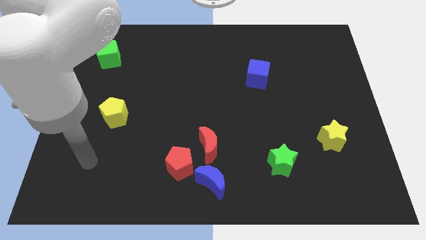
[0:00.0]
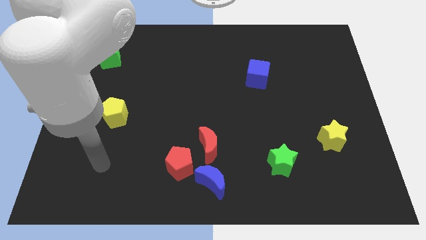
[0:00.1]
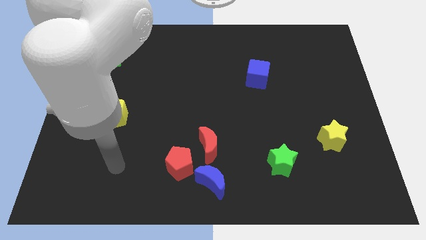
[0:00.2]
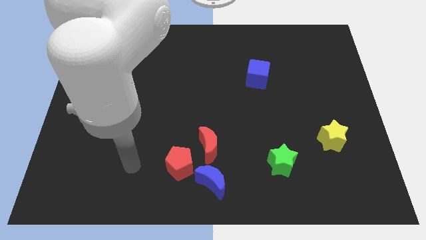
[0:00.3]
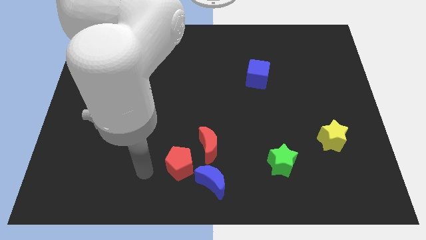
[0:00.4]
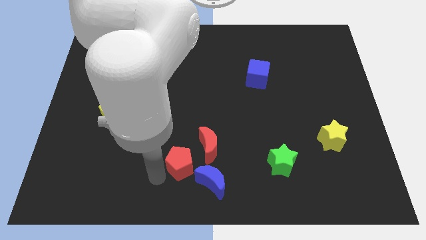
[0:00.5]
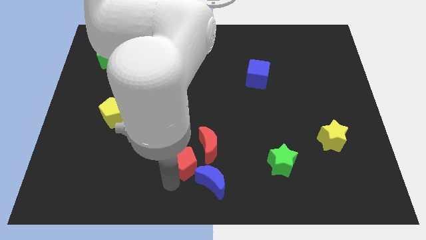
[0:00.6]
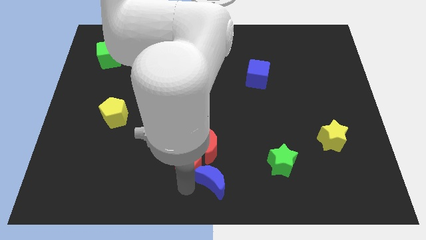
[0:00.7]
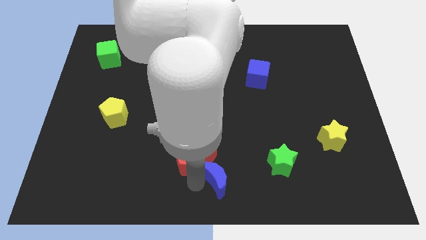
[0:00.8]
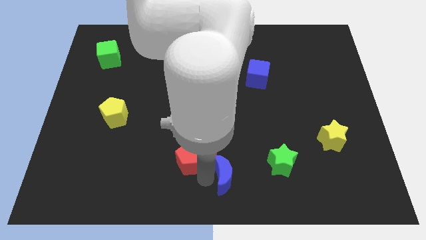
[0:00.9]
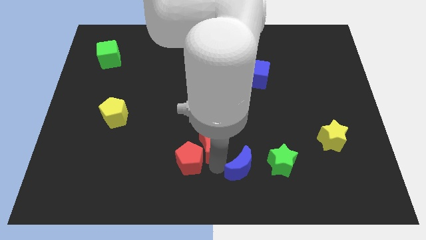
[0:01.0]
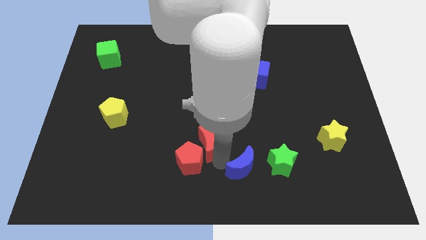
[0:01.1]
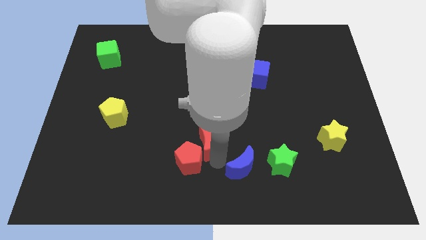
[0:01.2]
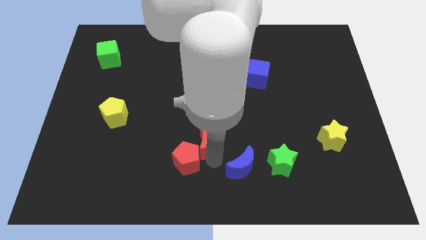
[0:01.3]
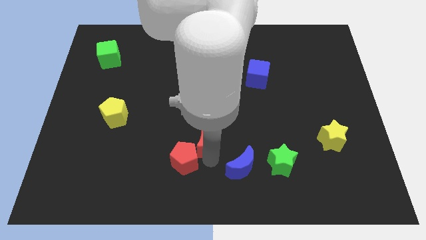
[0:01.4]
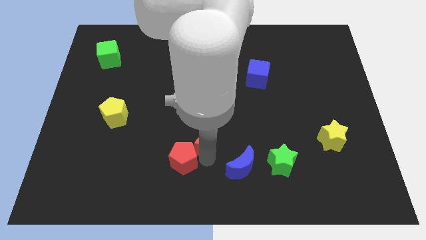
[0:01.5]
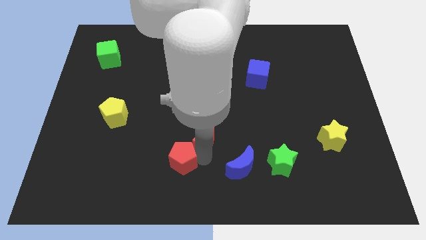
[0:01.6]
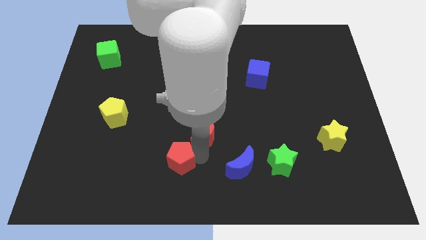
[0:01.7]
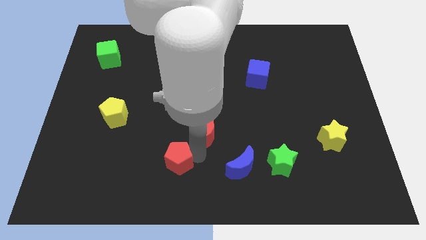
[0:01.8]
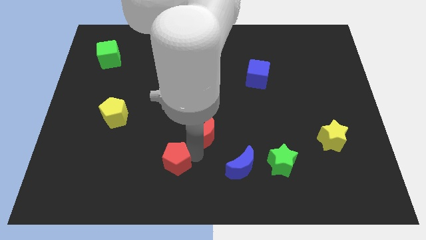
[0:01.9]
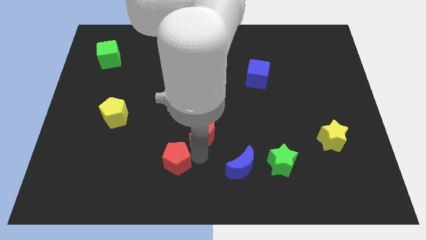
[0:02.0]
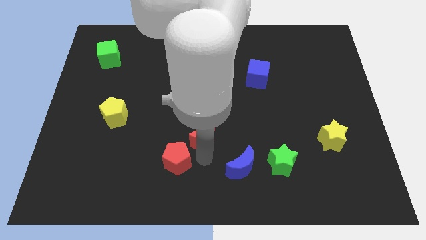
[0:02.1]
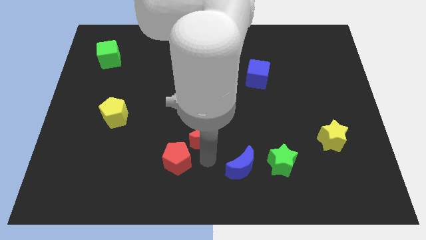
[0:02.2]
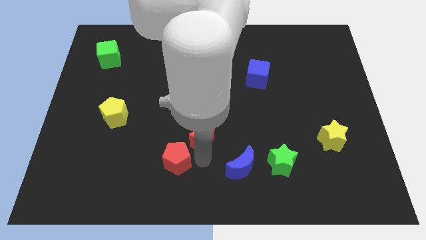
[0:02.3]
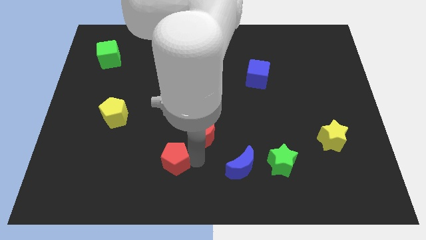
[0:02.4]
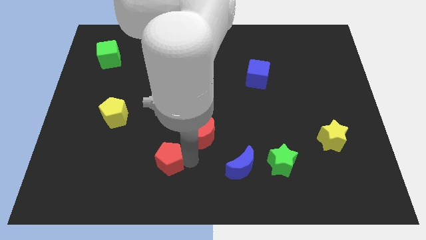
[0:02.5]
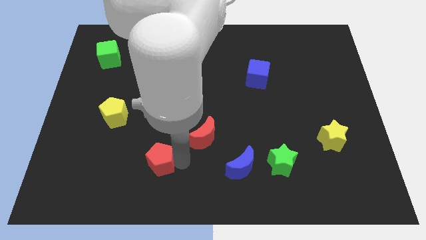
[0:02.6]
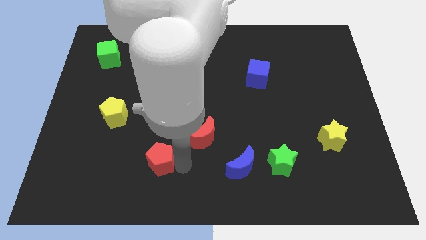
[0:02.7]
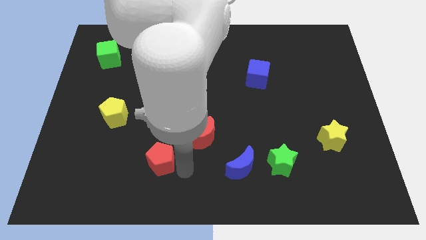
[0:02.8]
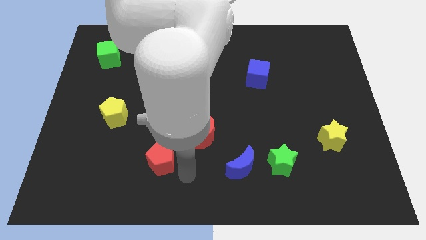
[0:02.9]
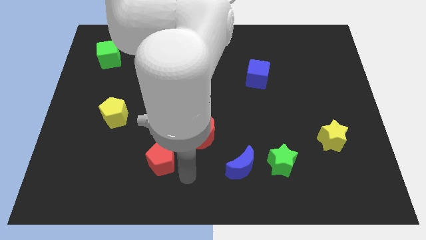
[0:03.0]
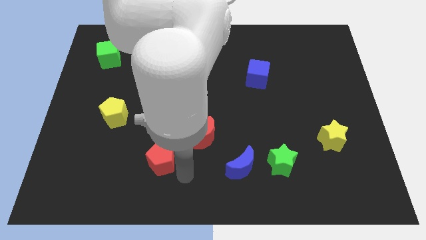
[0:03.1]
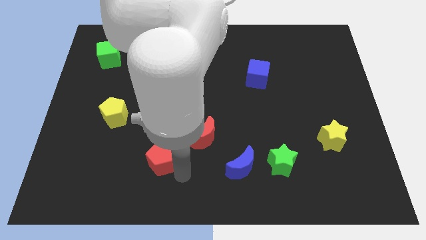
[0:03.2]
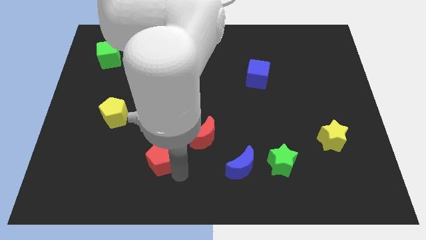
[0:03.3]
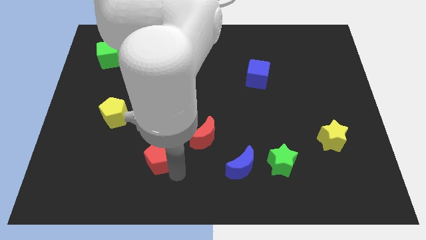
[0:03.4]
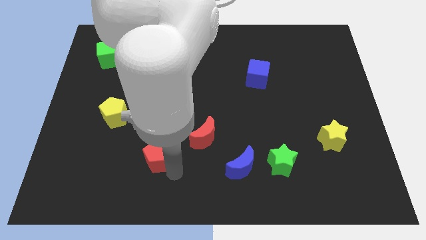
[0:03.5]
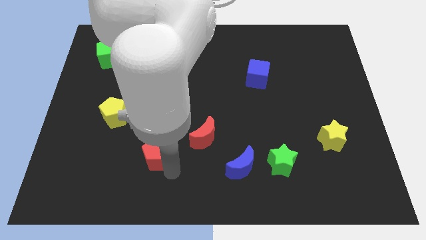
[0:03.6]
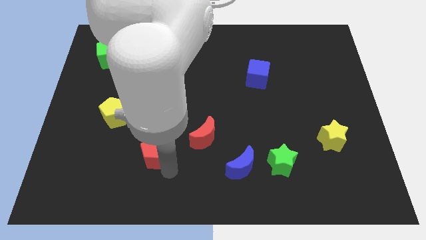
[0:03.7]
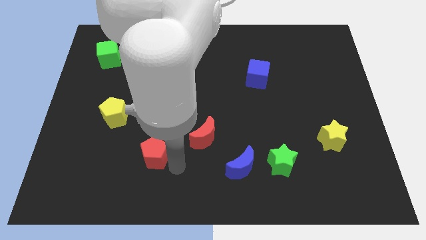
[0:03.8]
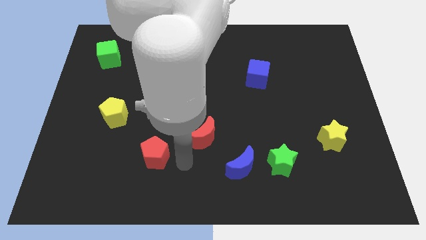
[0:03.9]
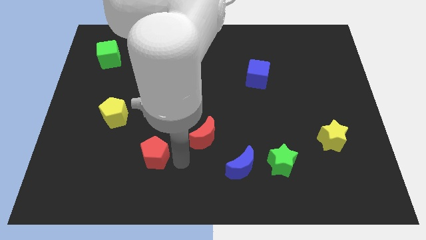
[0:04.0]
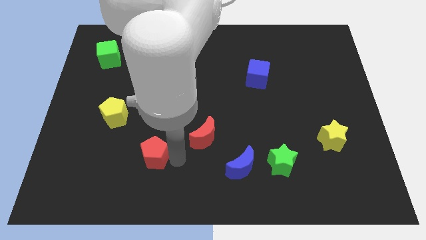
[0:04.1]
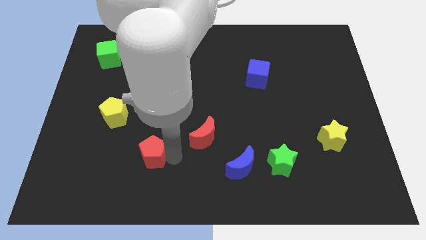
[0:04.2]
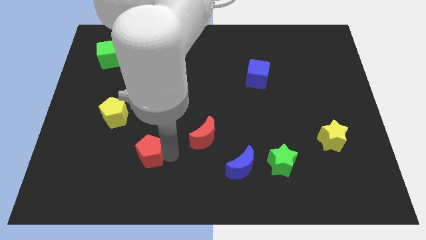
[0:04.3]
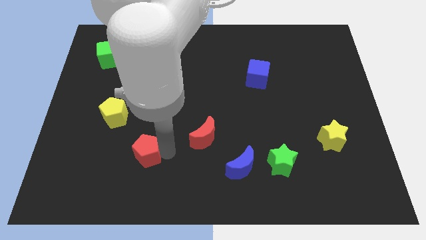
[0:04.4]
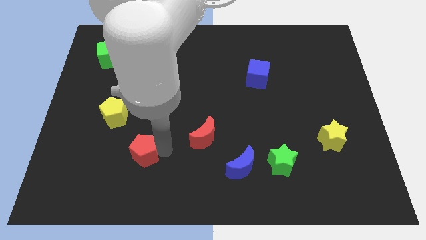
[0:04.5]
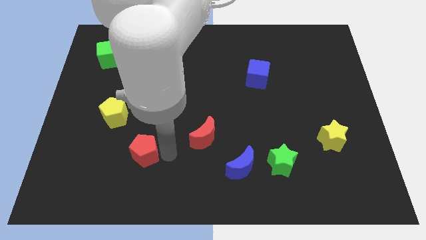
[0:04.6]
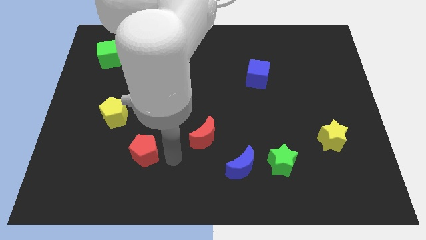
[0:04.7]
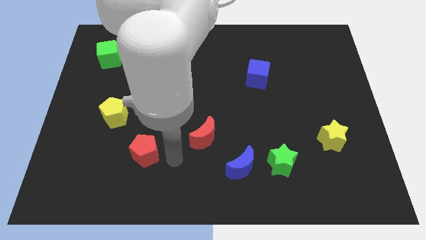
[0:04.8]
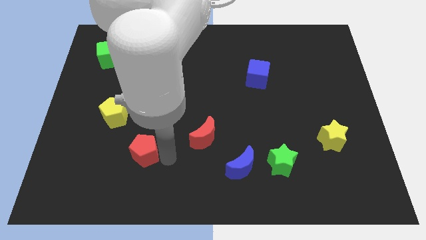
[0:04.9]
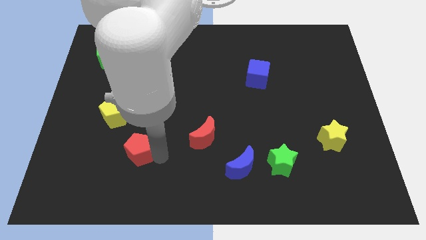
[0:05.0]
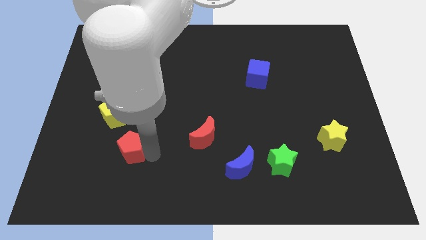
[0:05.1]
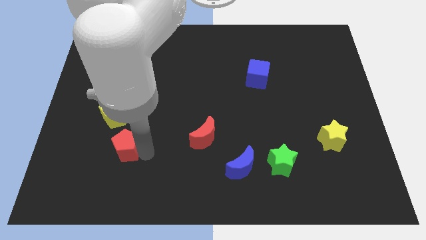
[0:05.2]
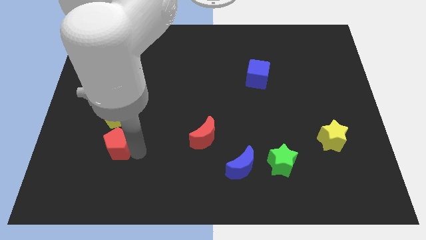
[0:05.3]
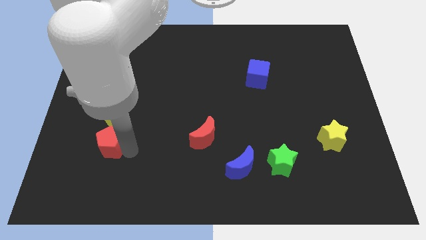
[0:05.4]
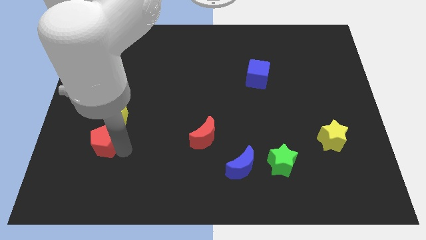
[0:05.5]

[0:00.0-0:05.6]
put the red pentagon to the bottom left of the yellow pentagon

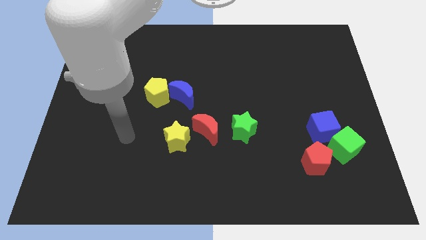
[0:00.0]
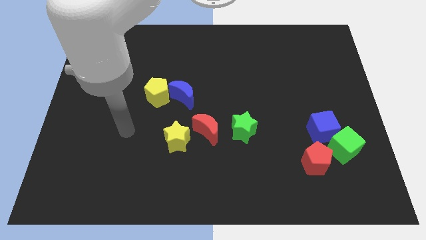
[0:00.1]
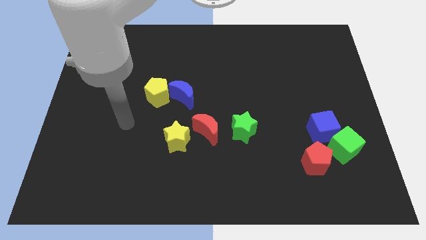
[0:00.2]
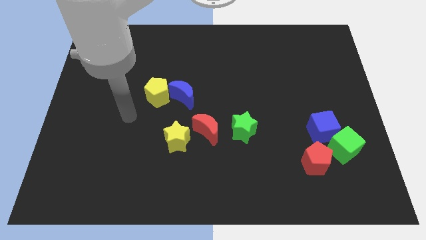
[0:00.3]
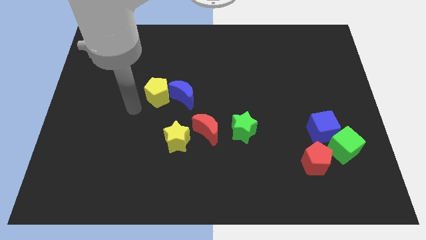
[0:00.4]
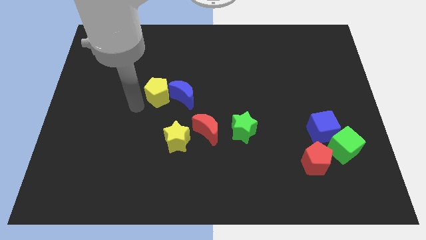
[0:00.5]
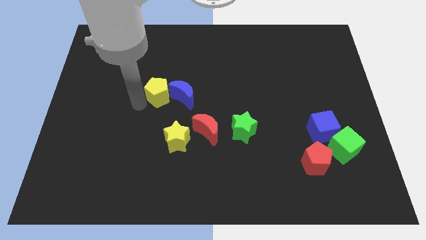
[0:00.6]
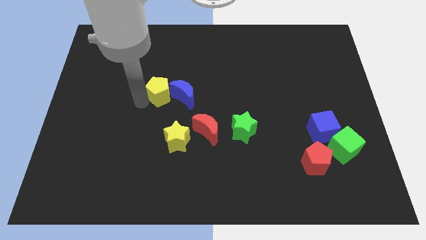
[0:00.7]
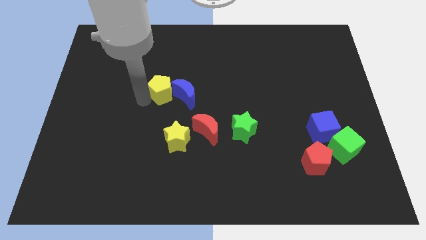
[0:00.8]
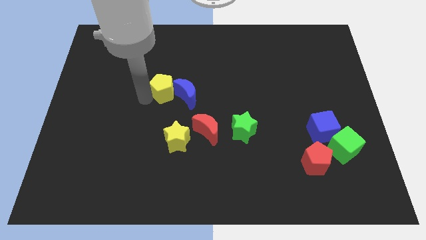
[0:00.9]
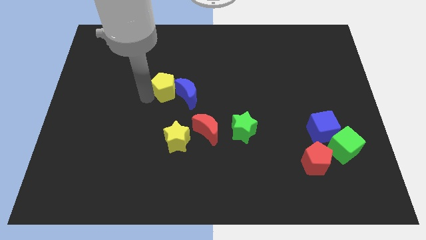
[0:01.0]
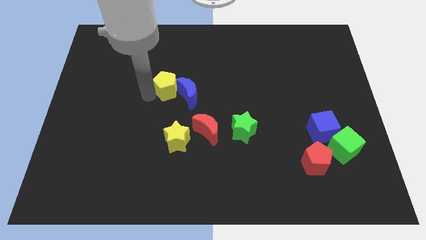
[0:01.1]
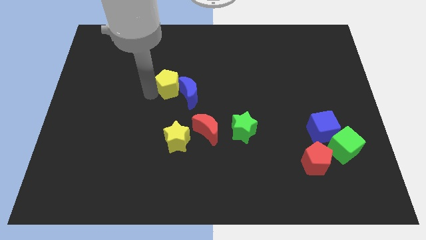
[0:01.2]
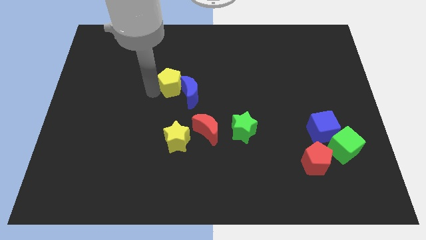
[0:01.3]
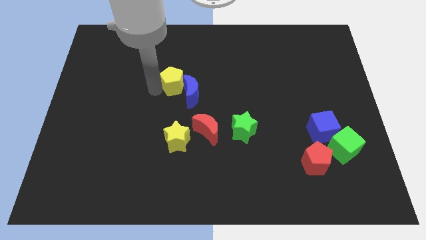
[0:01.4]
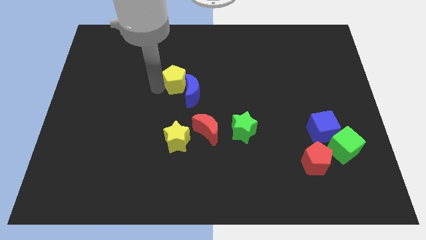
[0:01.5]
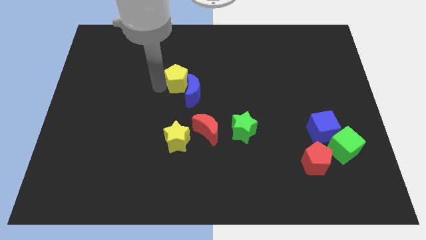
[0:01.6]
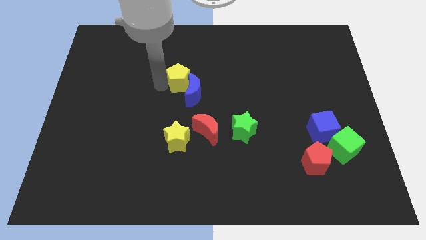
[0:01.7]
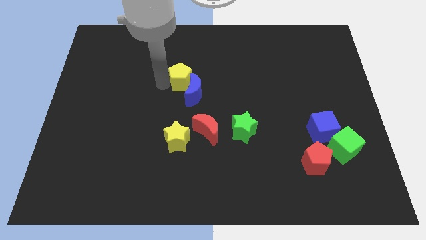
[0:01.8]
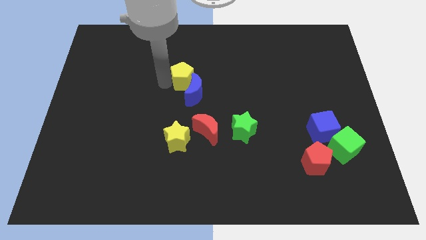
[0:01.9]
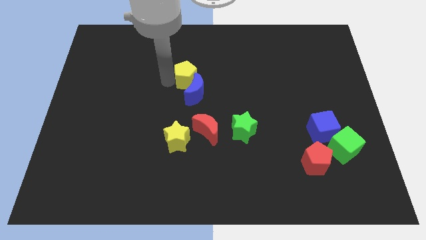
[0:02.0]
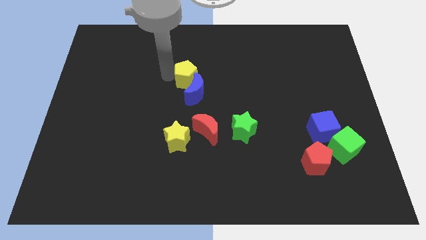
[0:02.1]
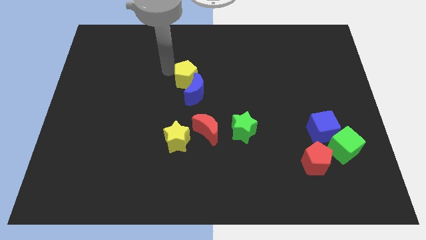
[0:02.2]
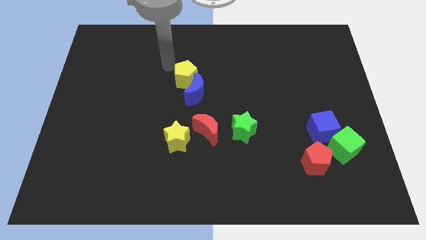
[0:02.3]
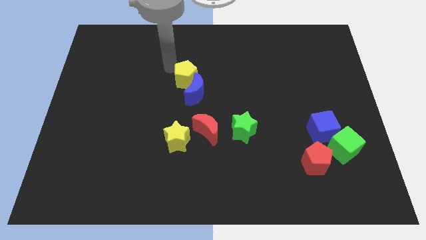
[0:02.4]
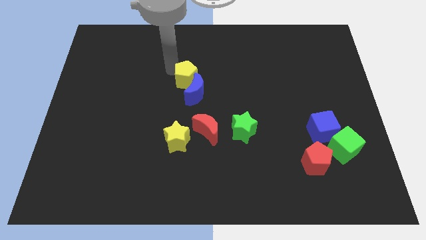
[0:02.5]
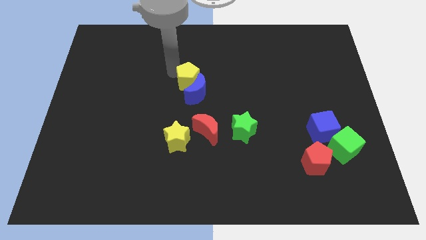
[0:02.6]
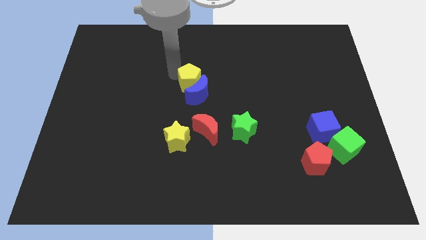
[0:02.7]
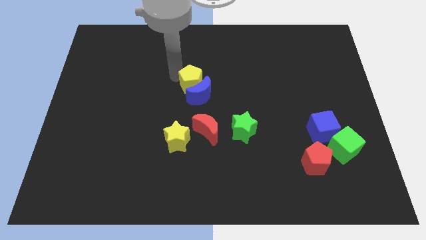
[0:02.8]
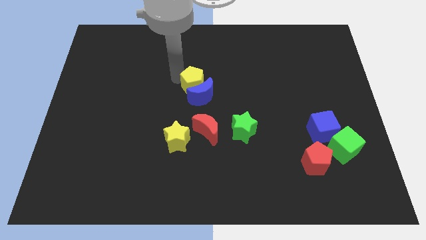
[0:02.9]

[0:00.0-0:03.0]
put the yellow pentagon to the top side of the red moon
